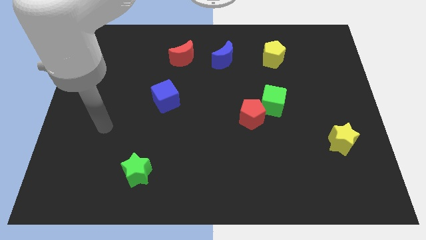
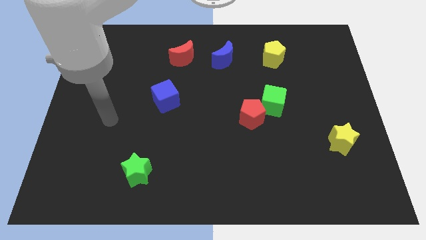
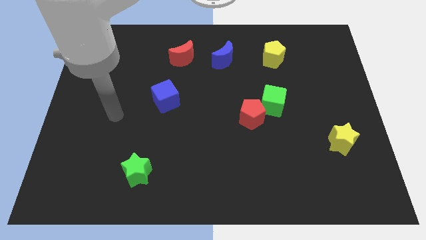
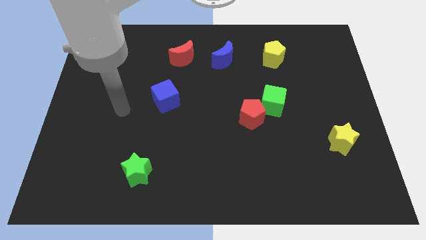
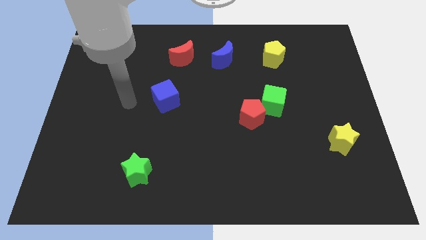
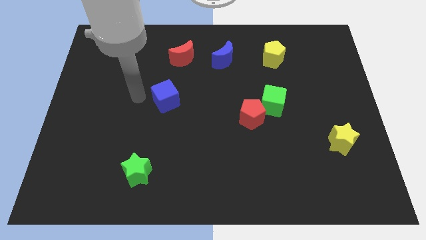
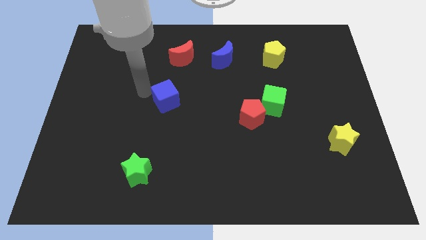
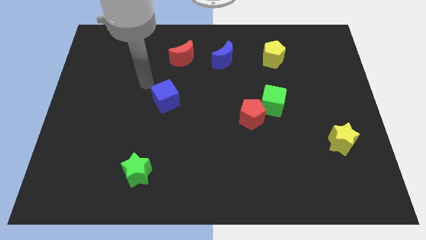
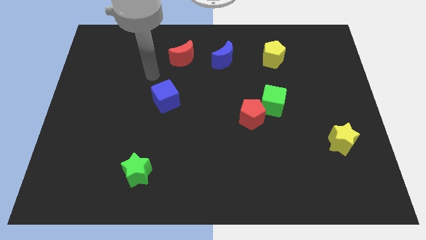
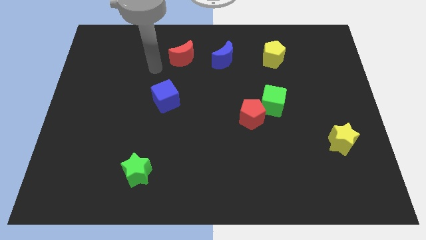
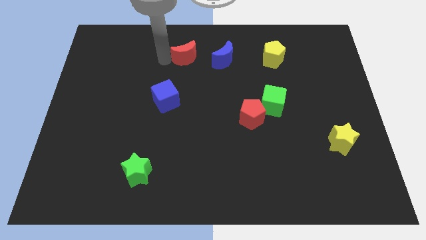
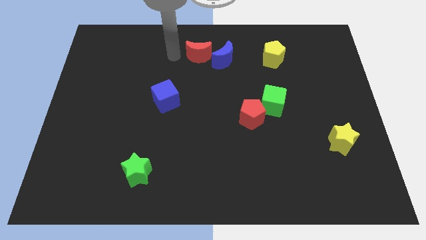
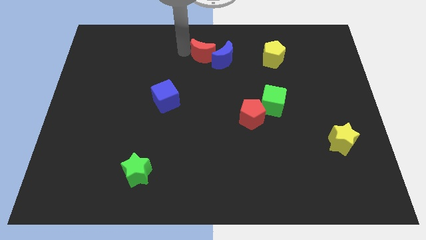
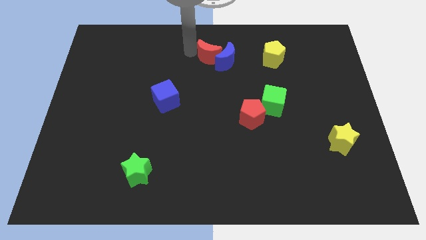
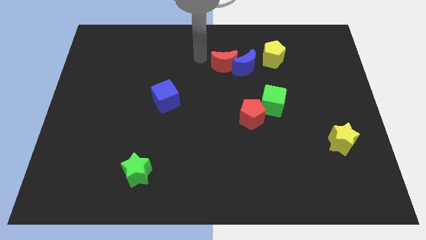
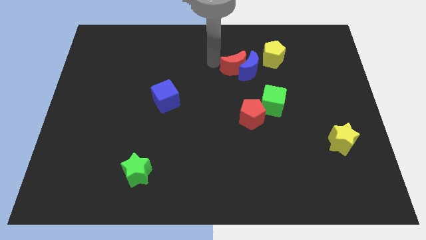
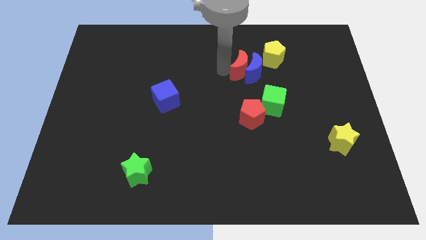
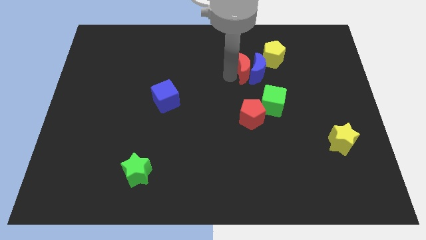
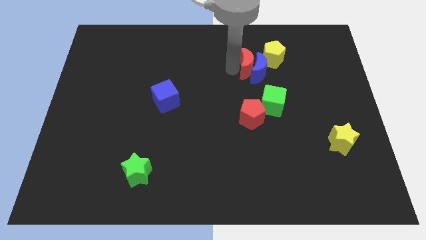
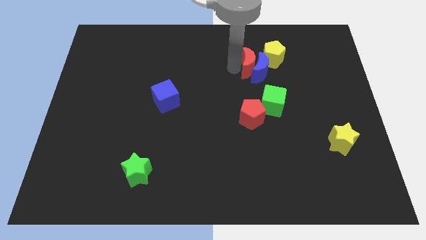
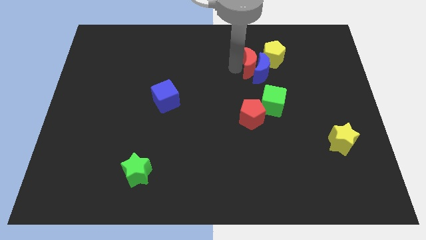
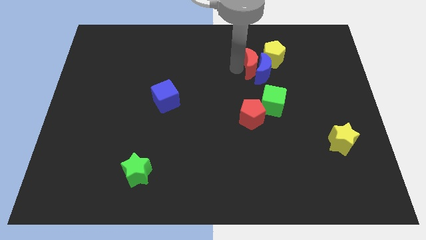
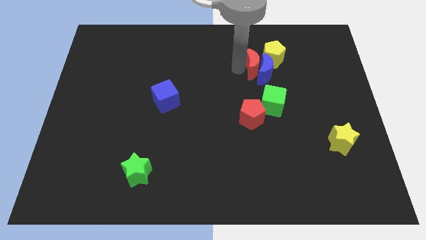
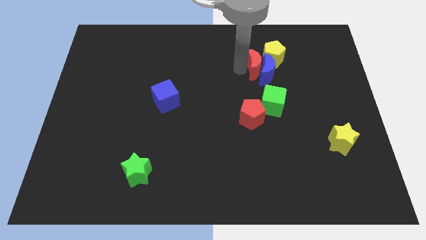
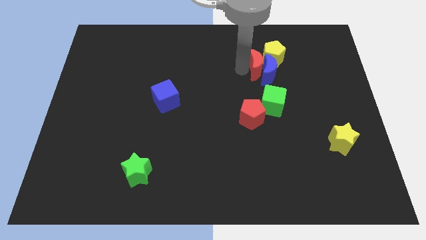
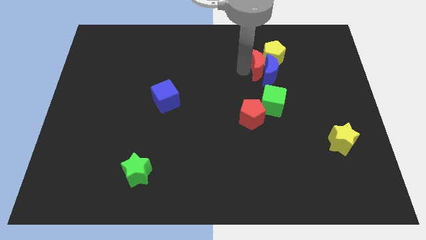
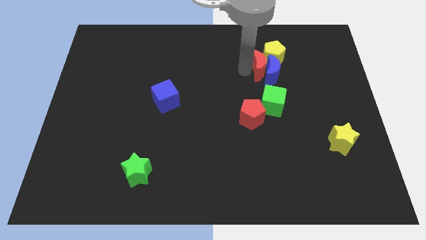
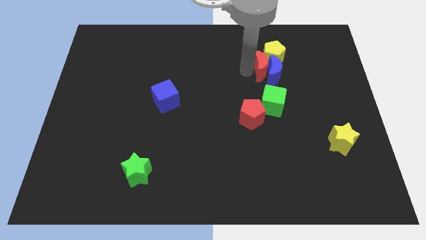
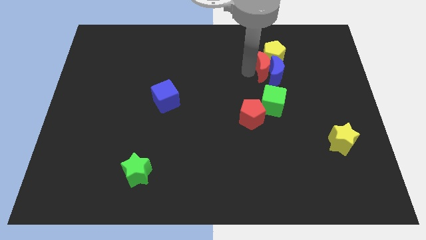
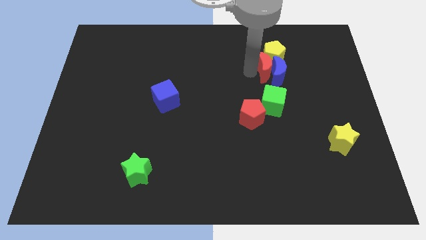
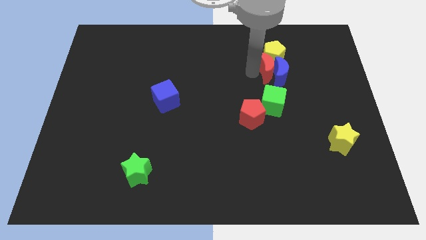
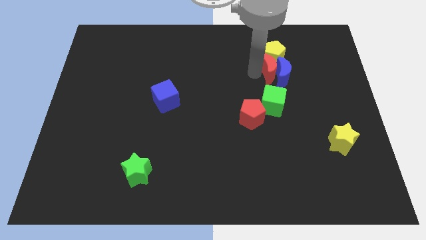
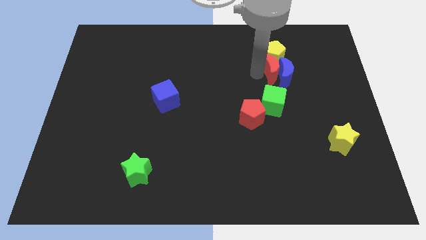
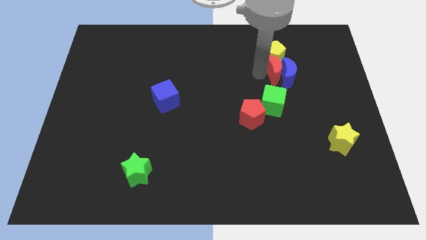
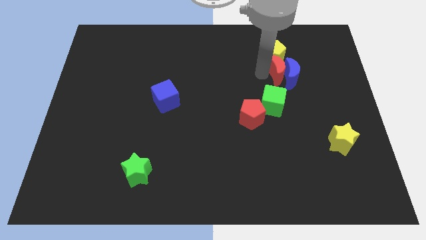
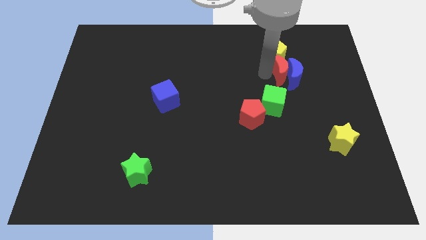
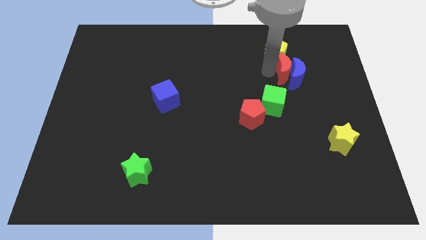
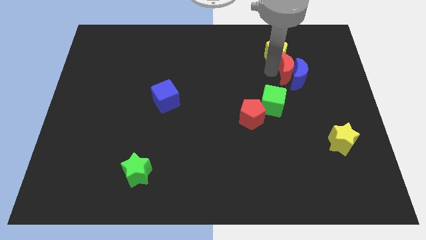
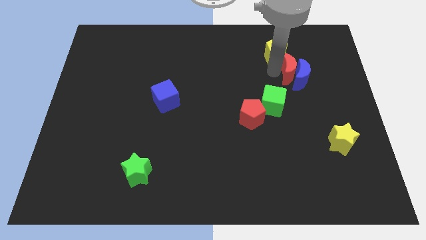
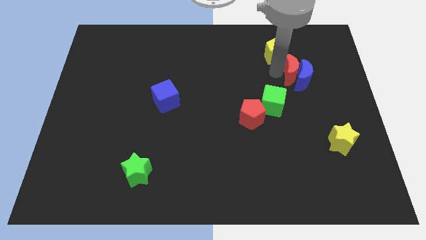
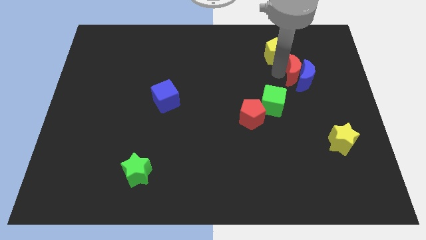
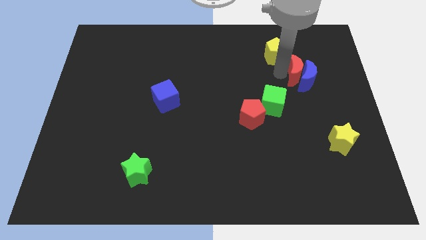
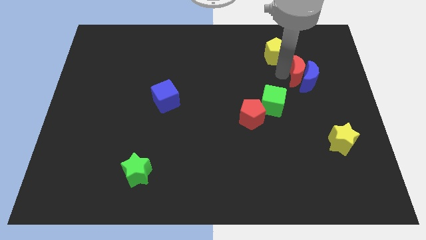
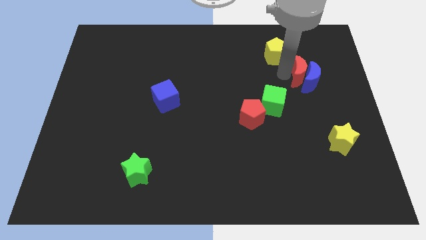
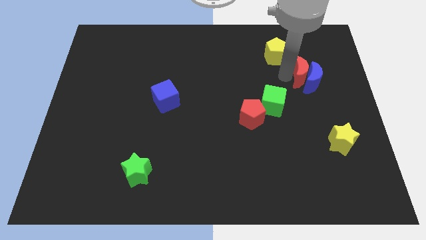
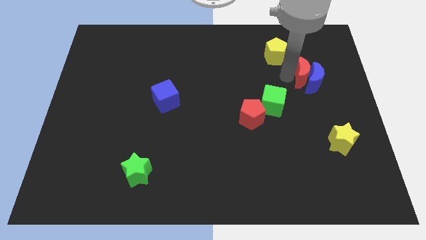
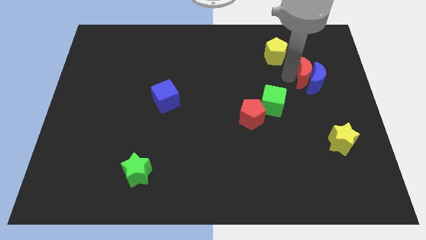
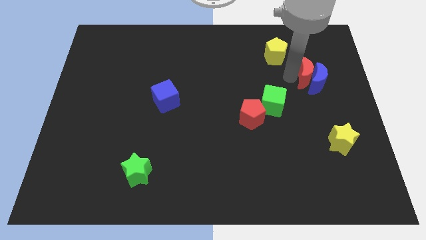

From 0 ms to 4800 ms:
move the blue moon to the right side

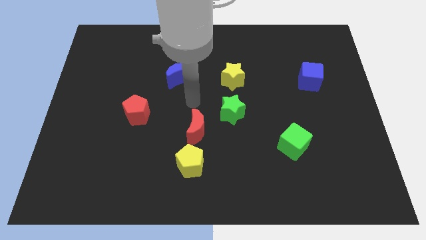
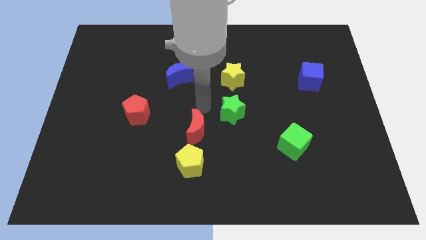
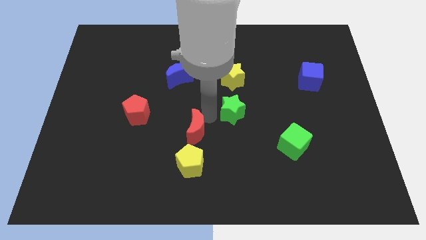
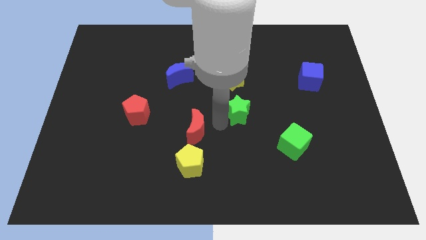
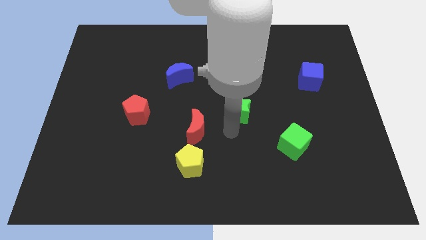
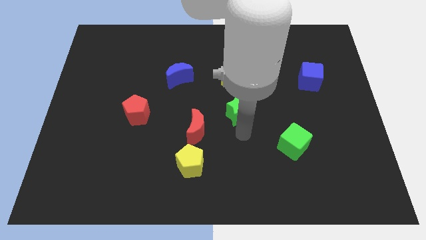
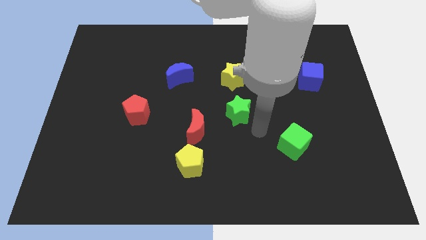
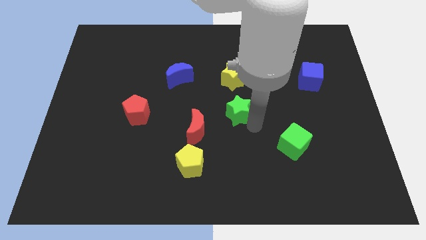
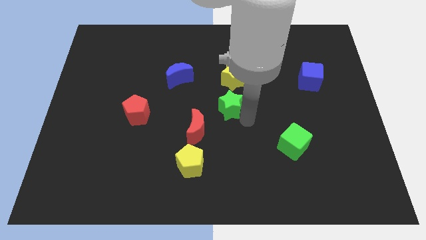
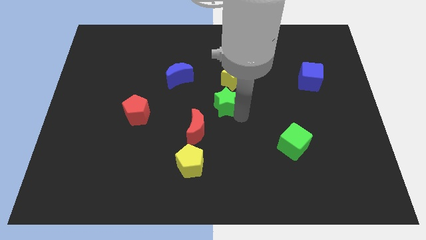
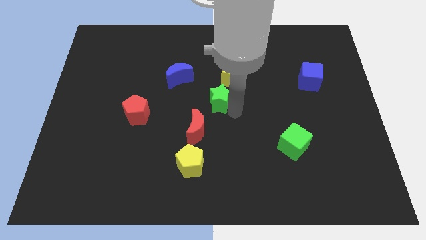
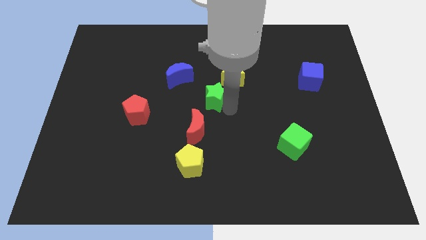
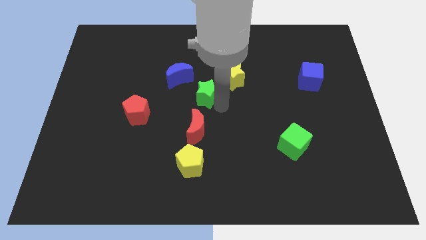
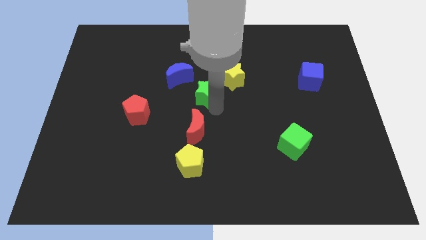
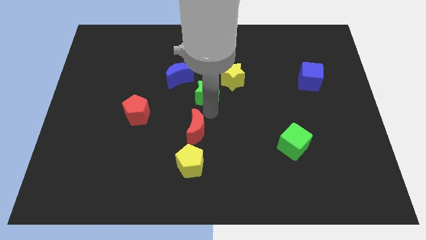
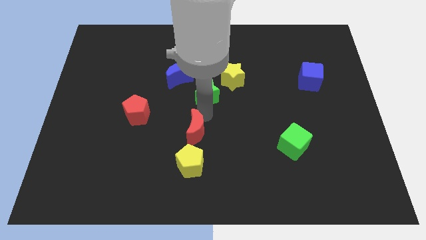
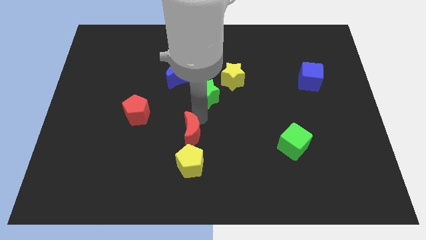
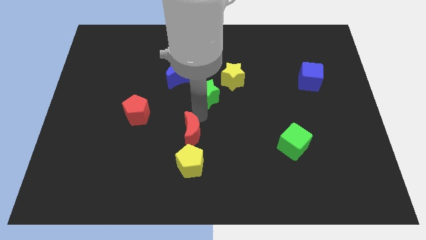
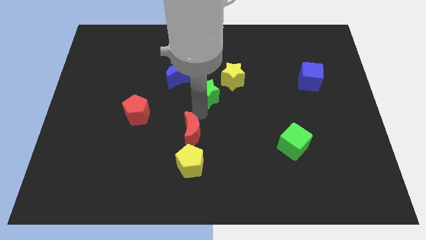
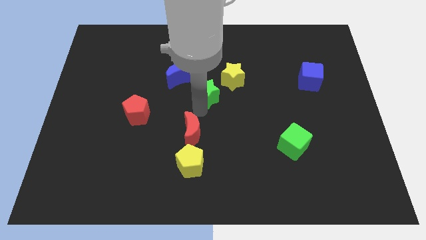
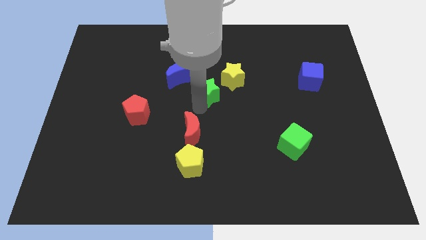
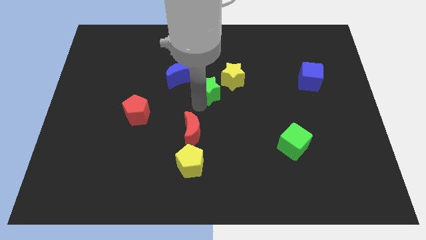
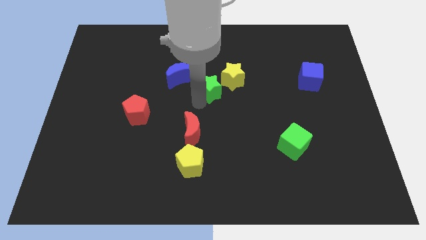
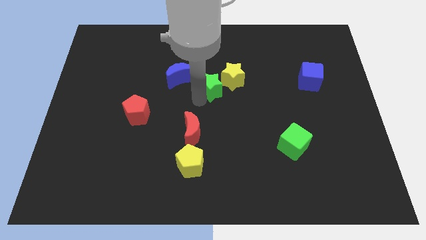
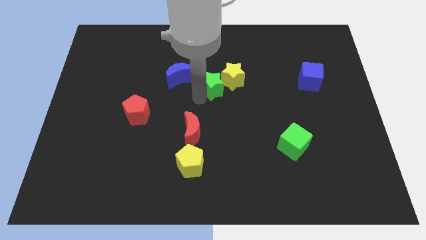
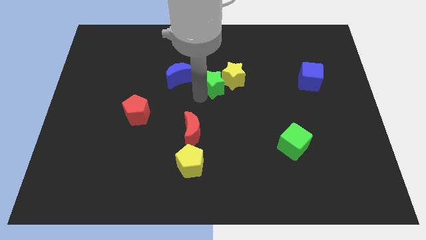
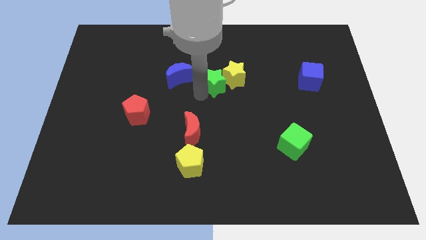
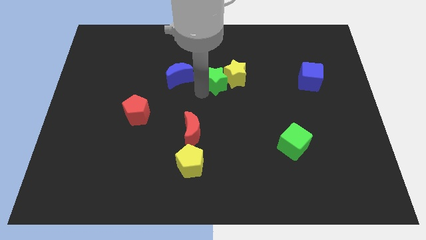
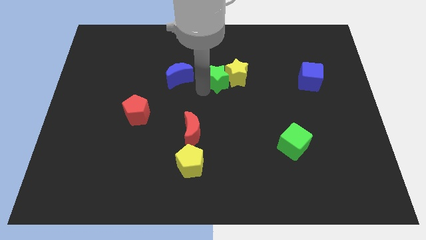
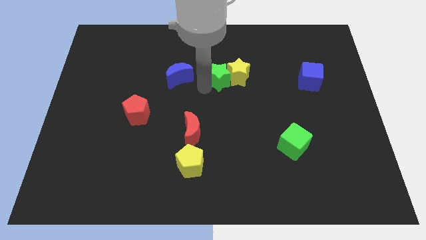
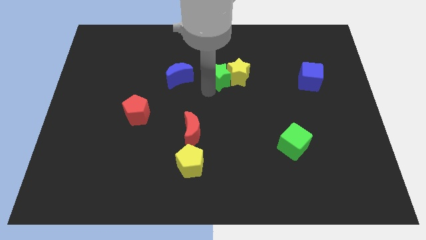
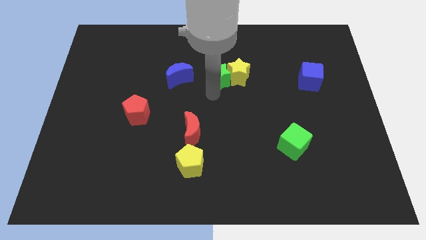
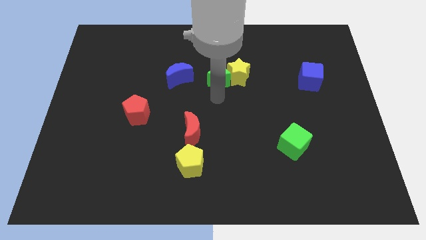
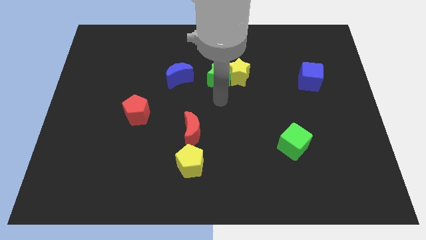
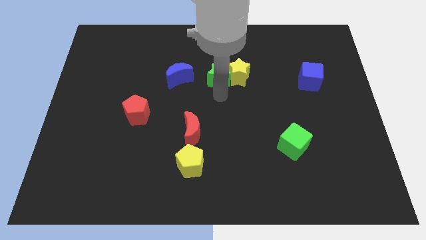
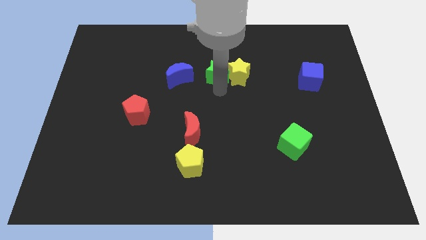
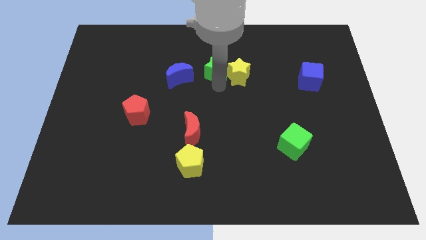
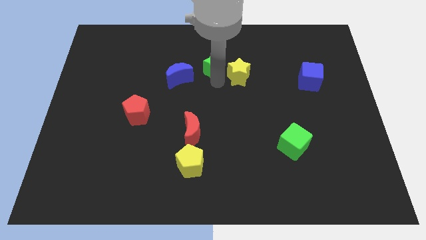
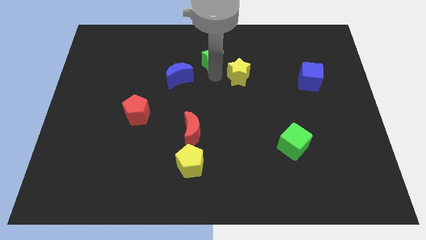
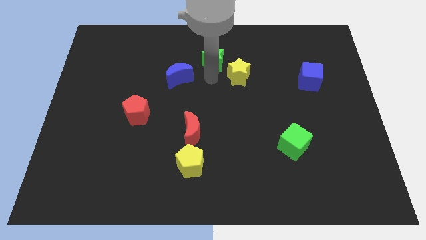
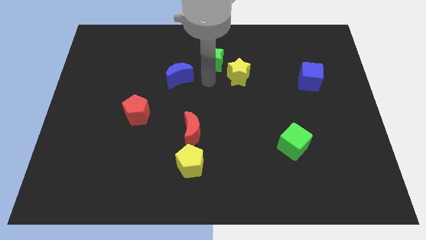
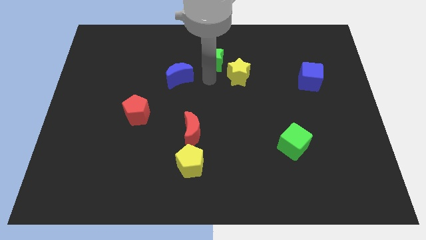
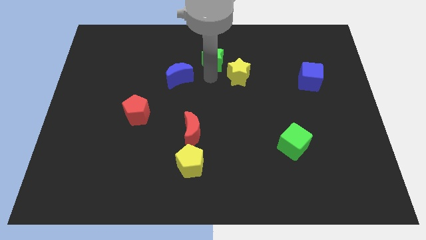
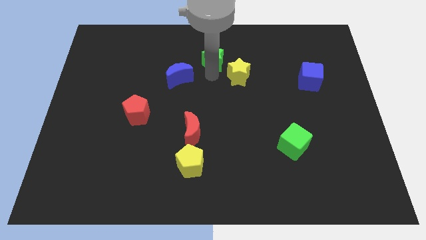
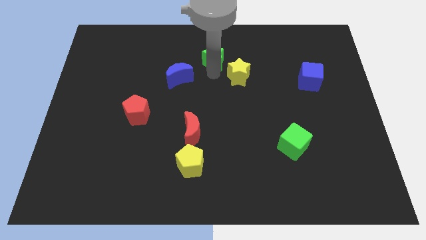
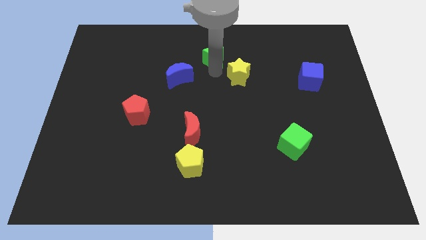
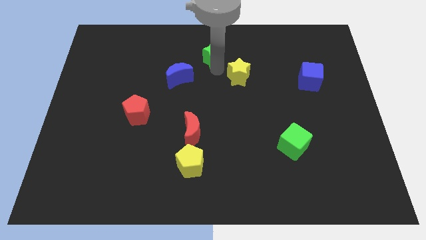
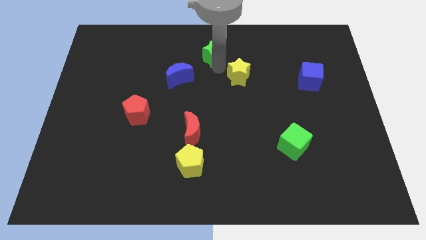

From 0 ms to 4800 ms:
put the green star to the top side
